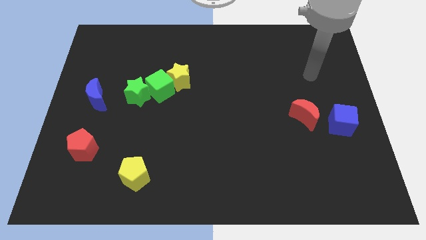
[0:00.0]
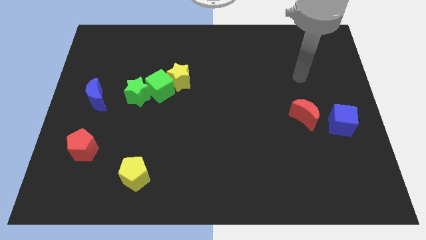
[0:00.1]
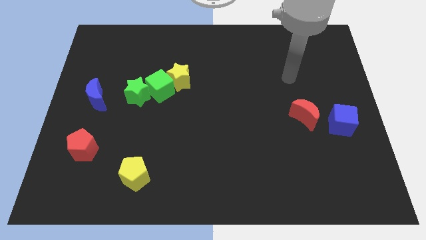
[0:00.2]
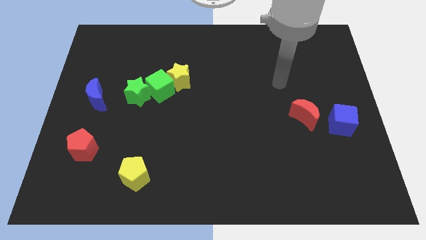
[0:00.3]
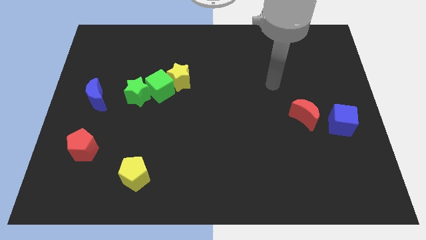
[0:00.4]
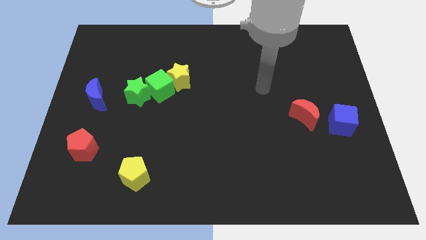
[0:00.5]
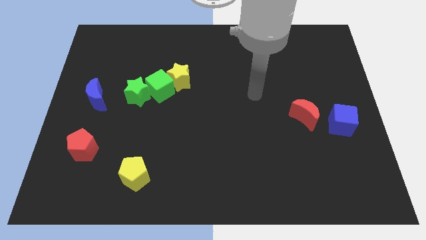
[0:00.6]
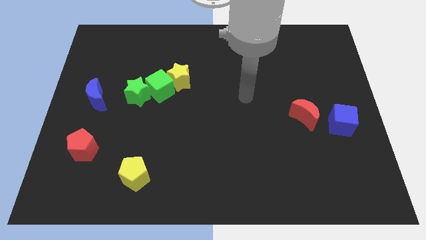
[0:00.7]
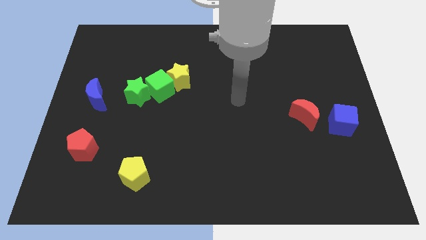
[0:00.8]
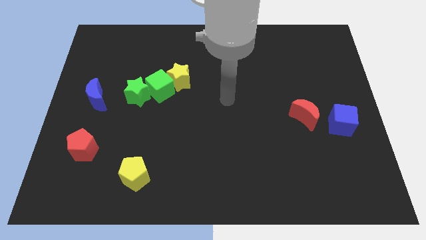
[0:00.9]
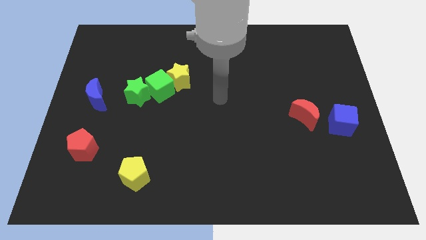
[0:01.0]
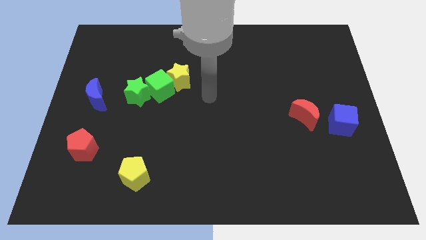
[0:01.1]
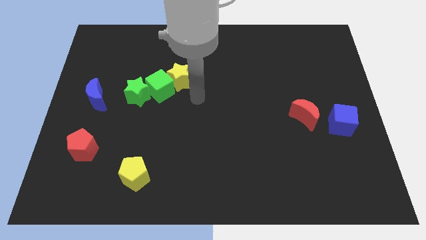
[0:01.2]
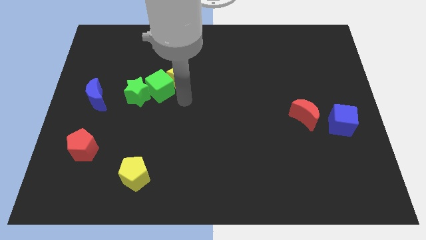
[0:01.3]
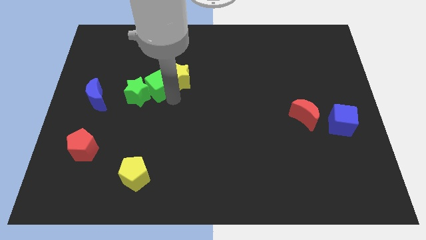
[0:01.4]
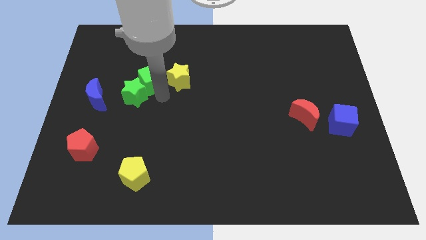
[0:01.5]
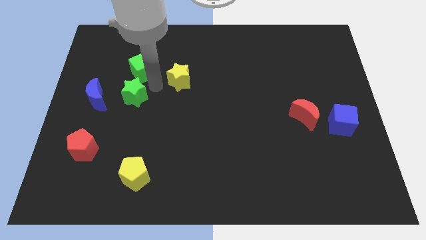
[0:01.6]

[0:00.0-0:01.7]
move the yellow star away from the green cube

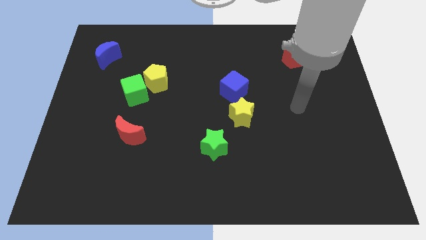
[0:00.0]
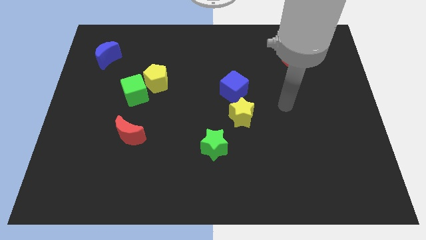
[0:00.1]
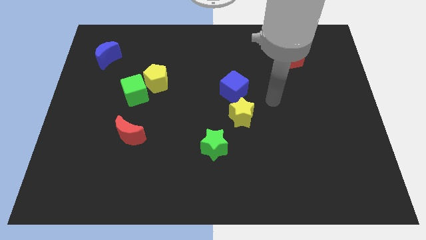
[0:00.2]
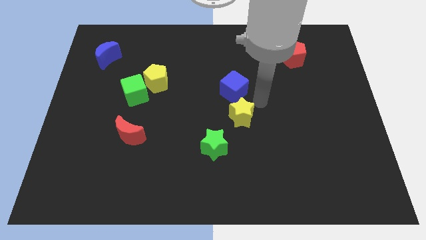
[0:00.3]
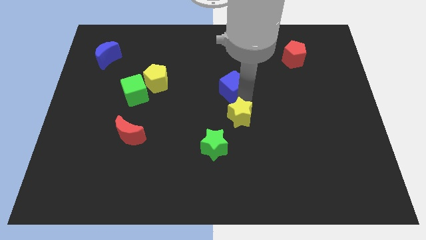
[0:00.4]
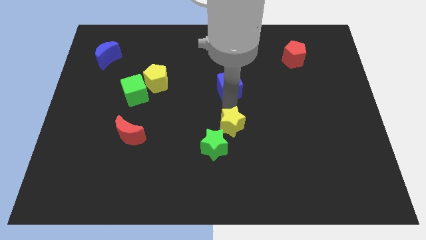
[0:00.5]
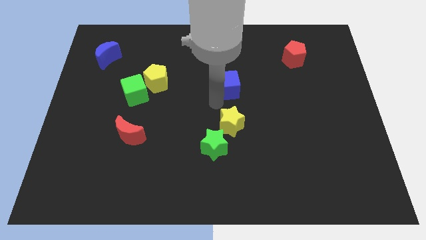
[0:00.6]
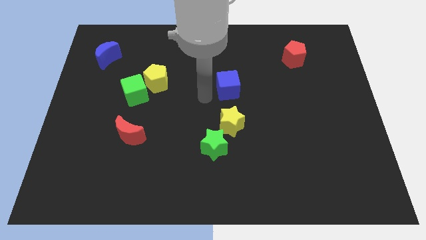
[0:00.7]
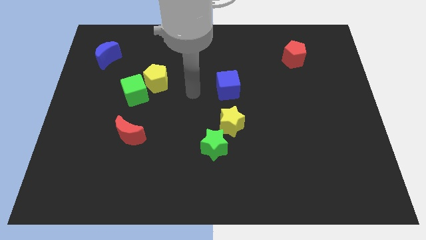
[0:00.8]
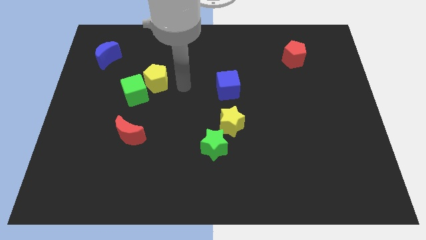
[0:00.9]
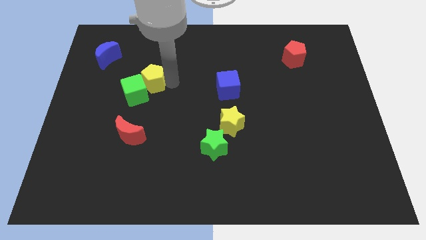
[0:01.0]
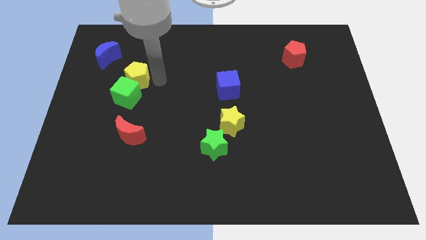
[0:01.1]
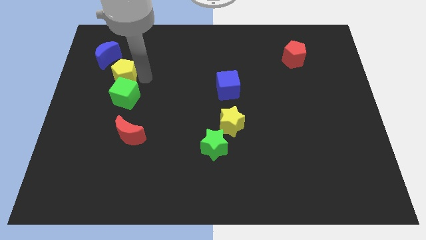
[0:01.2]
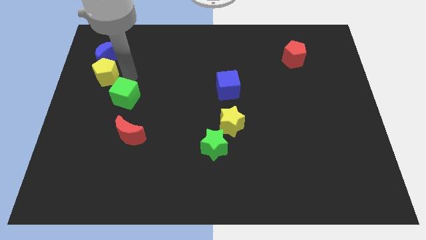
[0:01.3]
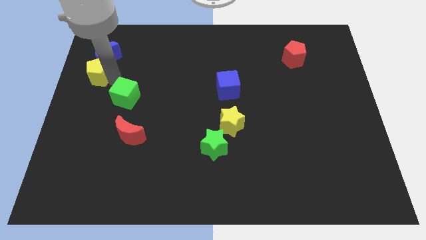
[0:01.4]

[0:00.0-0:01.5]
move the green cube away from the yellow pentagon

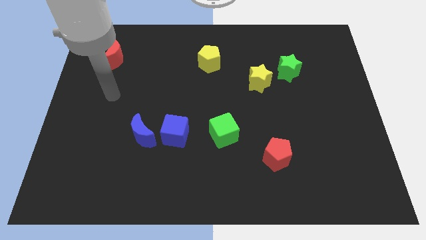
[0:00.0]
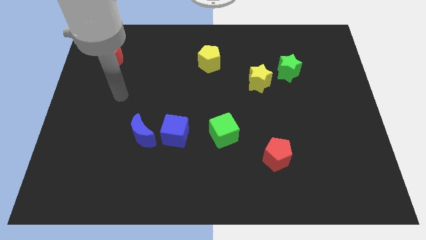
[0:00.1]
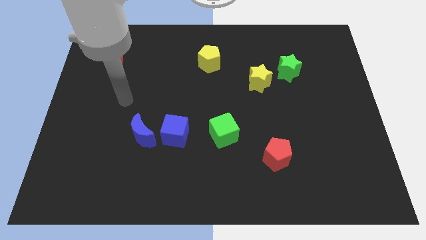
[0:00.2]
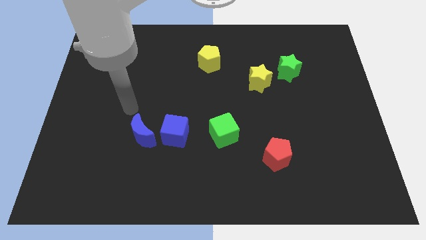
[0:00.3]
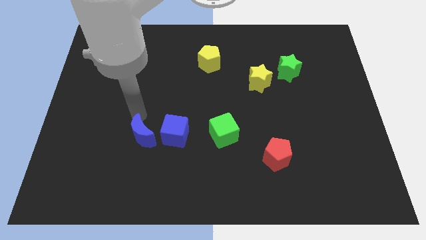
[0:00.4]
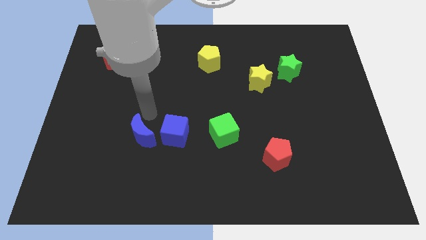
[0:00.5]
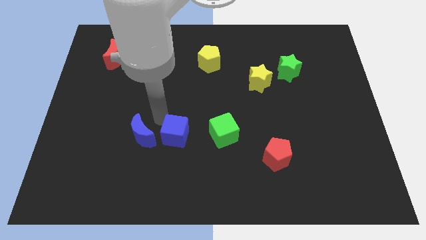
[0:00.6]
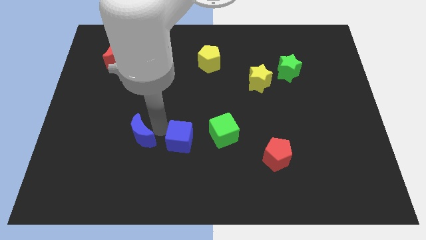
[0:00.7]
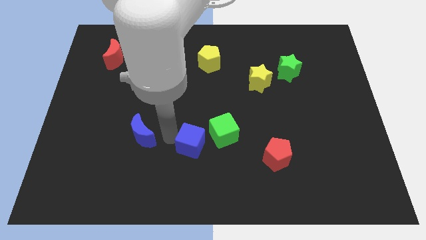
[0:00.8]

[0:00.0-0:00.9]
separate the blue moon from the blue cube

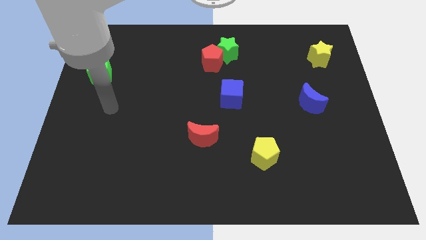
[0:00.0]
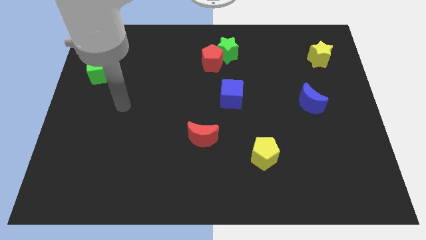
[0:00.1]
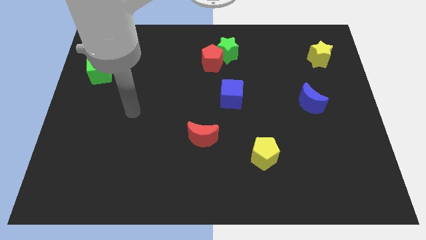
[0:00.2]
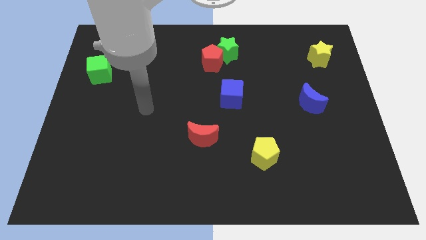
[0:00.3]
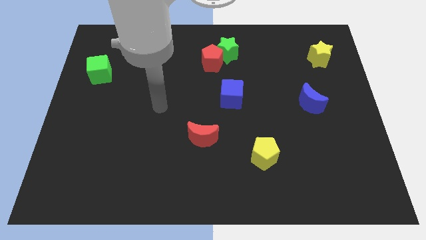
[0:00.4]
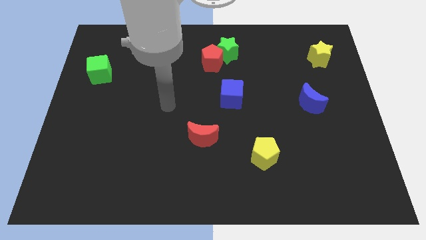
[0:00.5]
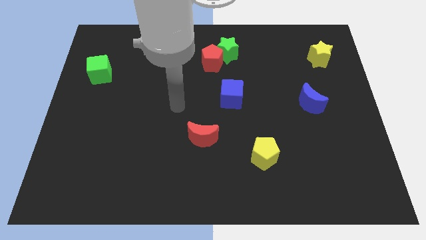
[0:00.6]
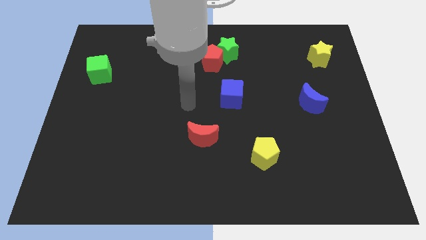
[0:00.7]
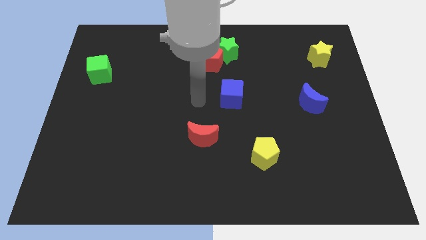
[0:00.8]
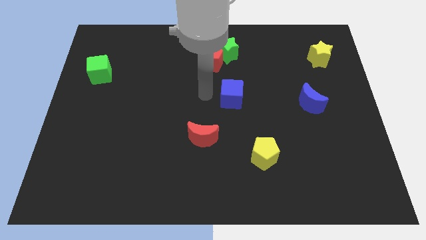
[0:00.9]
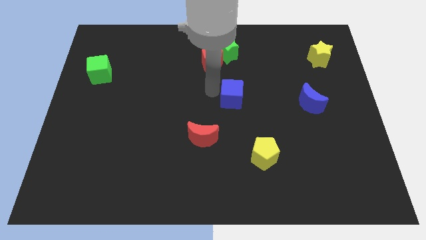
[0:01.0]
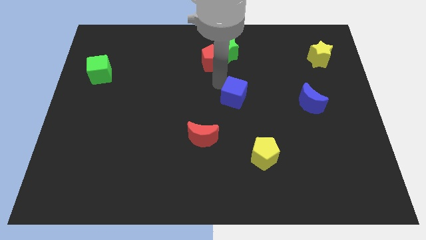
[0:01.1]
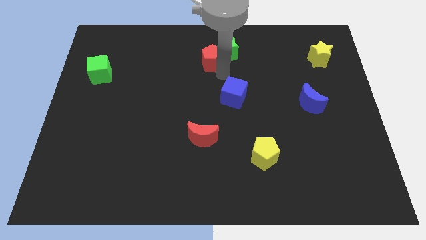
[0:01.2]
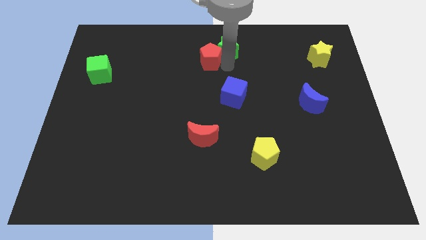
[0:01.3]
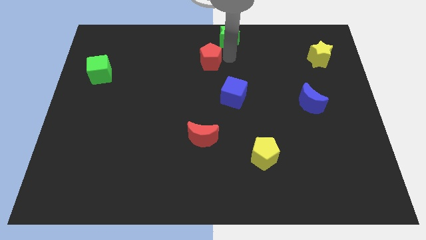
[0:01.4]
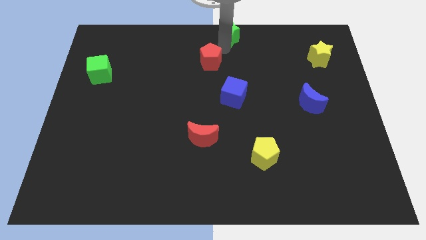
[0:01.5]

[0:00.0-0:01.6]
move the red pentagon away from the green star

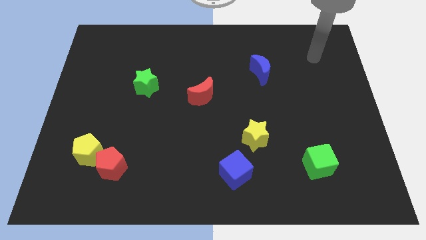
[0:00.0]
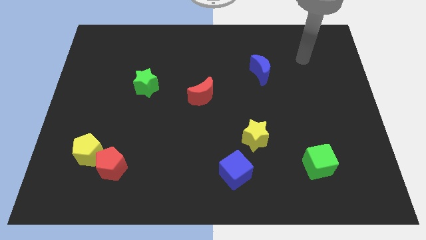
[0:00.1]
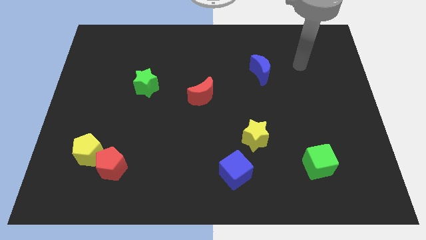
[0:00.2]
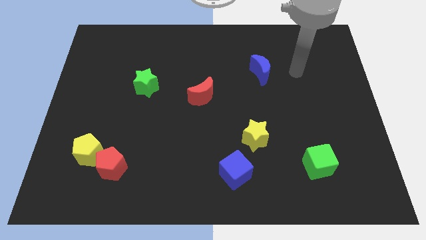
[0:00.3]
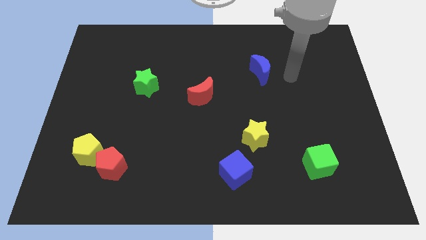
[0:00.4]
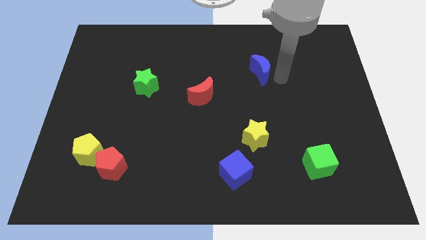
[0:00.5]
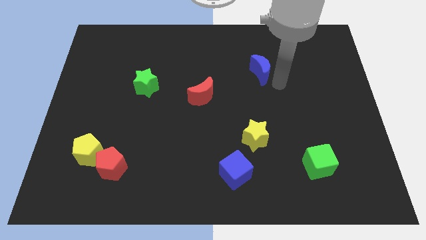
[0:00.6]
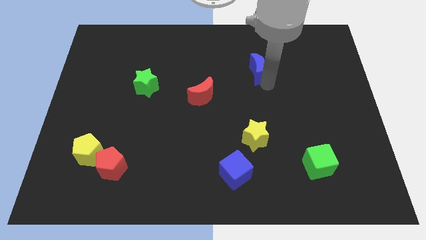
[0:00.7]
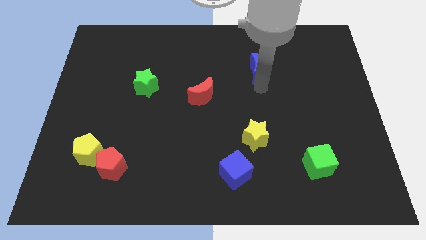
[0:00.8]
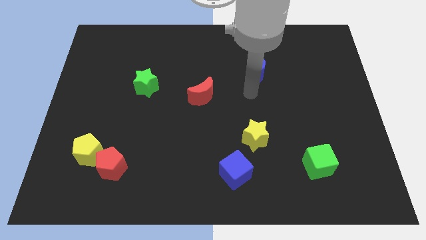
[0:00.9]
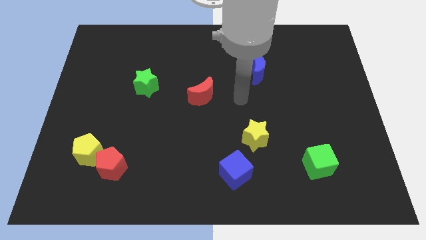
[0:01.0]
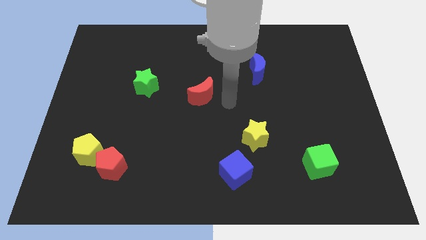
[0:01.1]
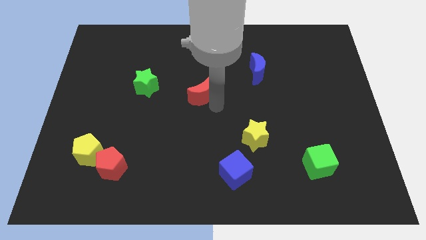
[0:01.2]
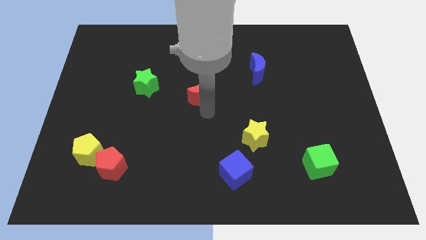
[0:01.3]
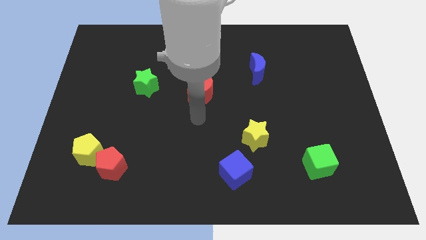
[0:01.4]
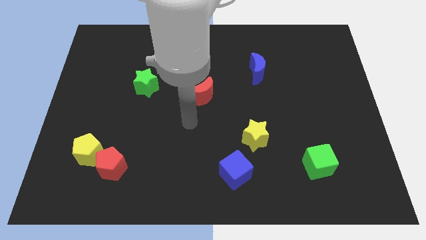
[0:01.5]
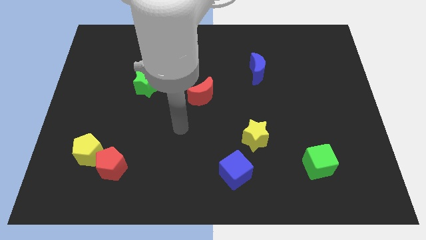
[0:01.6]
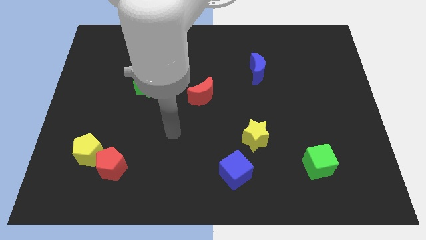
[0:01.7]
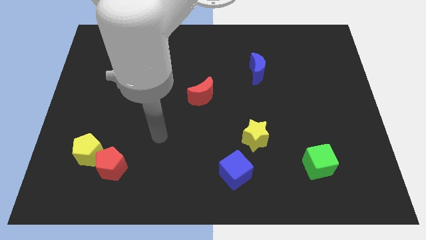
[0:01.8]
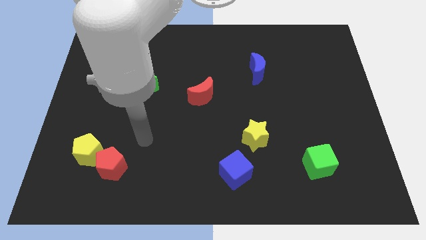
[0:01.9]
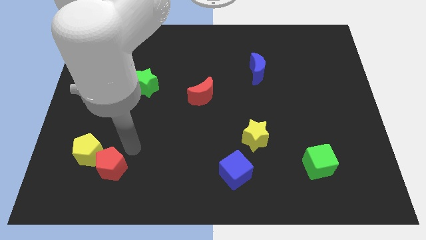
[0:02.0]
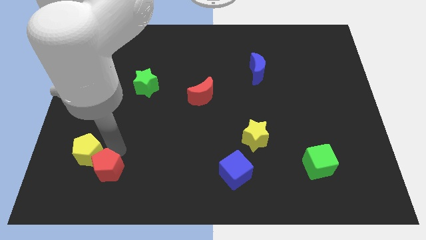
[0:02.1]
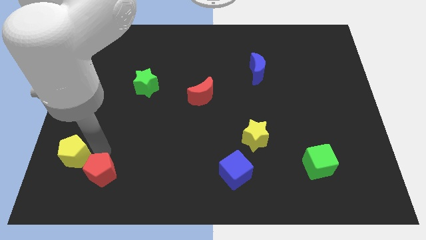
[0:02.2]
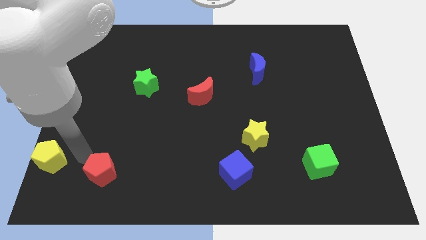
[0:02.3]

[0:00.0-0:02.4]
pull the red pentagon apart from the yellow pentagon

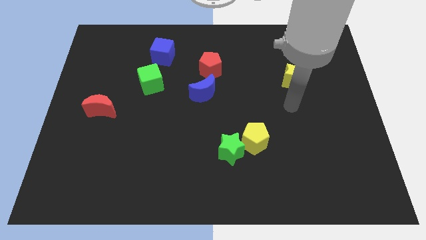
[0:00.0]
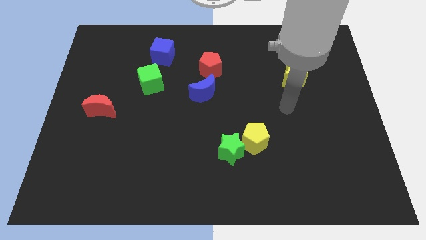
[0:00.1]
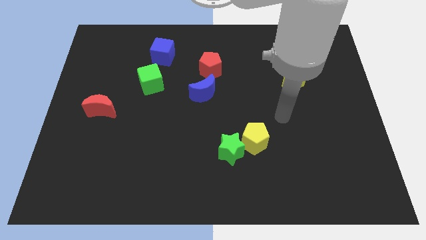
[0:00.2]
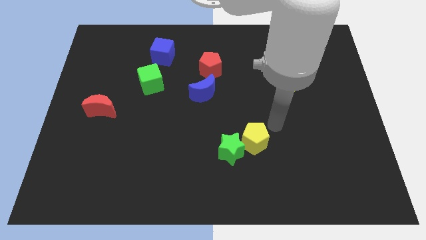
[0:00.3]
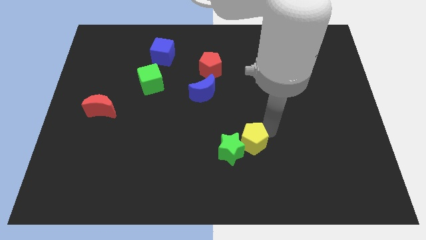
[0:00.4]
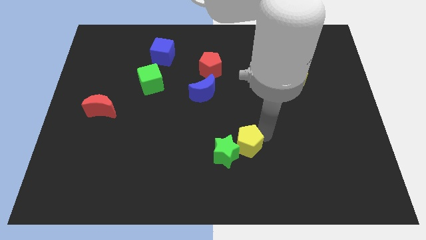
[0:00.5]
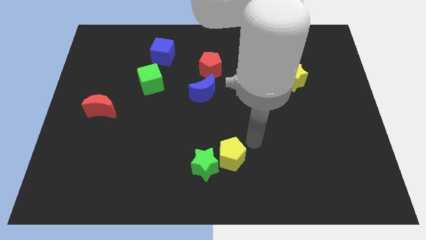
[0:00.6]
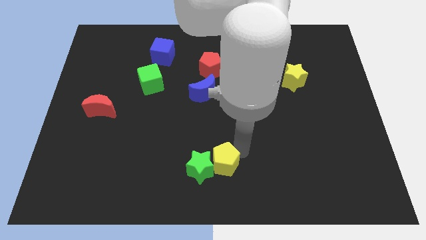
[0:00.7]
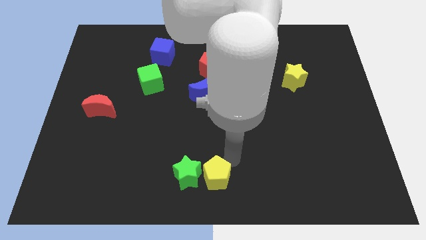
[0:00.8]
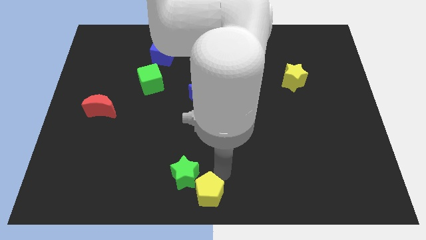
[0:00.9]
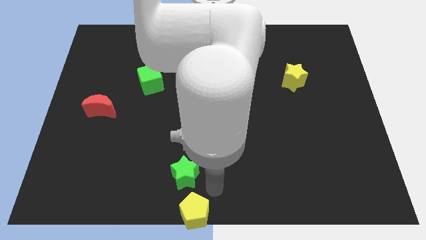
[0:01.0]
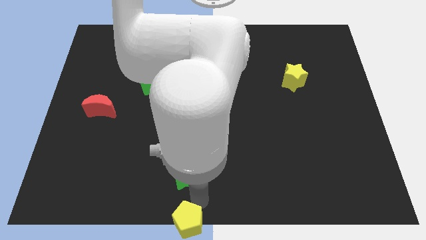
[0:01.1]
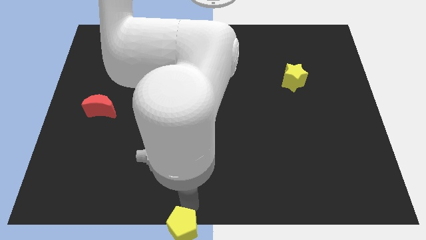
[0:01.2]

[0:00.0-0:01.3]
move the green star away from the yellow pentagon
